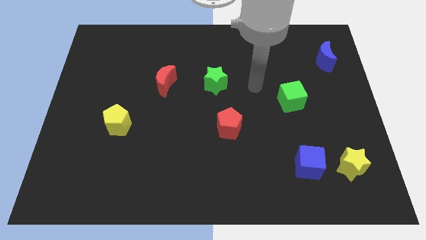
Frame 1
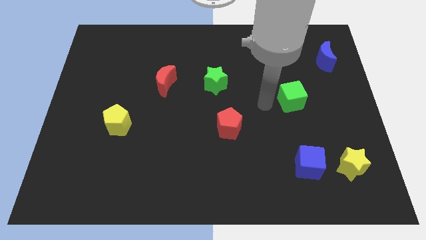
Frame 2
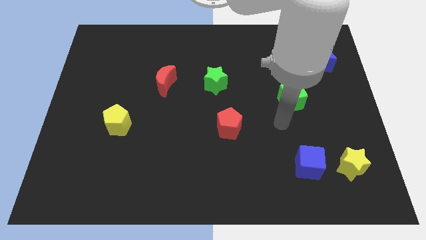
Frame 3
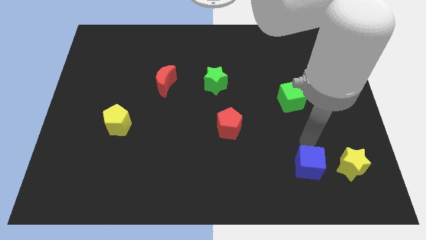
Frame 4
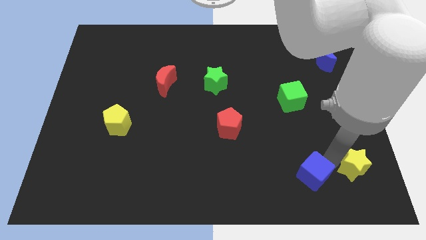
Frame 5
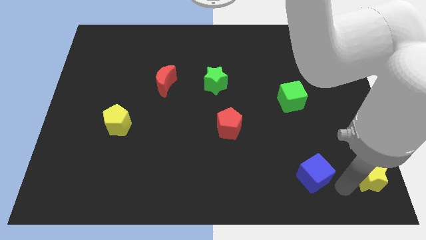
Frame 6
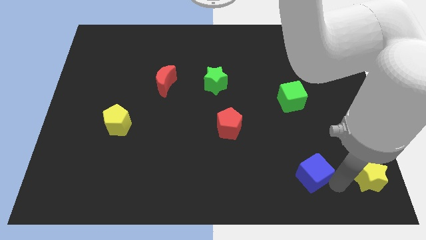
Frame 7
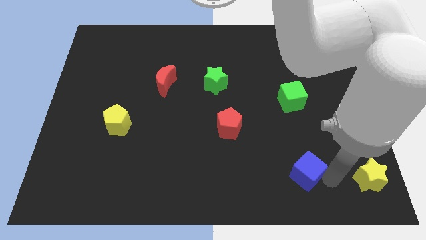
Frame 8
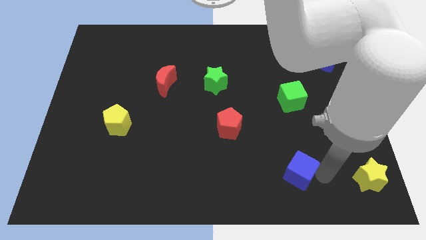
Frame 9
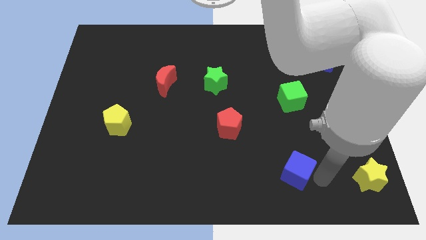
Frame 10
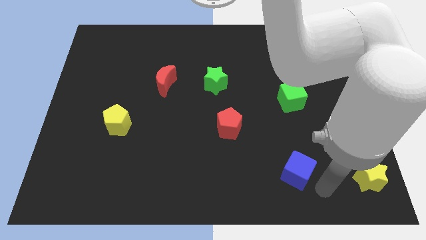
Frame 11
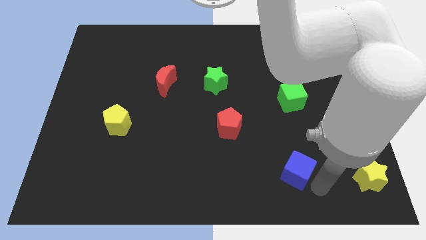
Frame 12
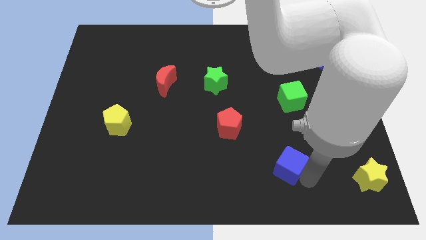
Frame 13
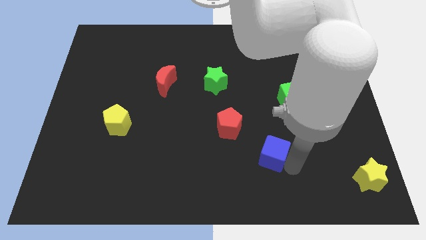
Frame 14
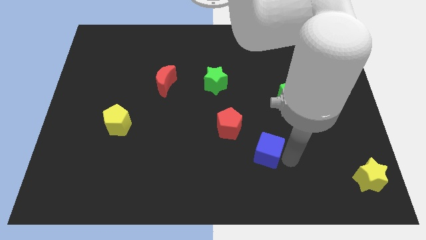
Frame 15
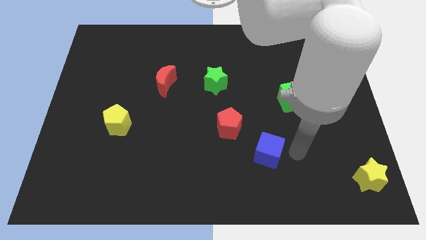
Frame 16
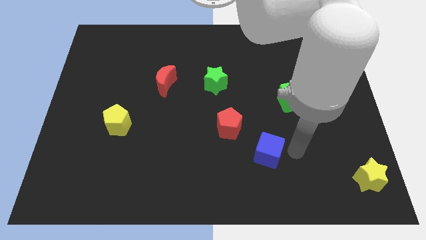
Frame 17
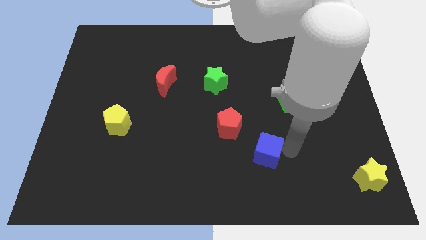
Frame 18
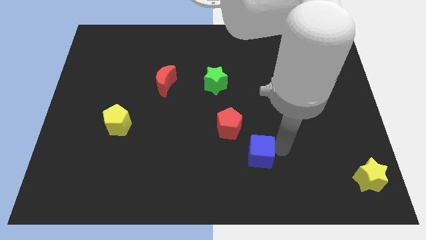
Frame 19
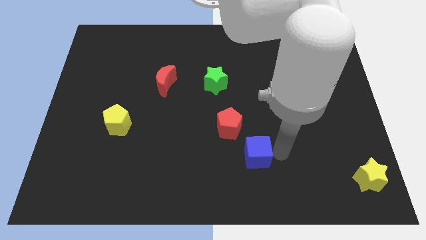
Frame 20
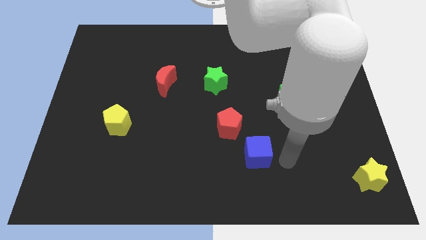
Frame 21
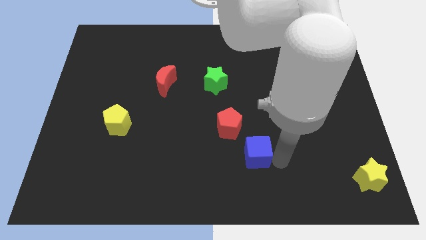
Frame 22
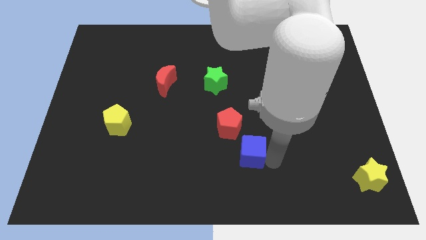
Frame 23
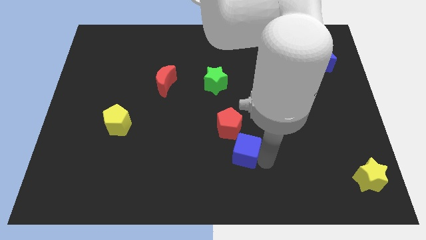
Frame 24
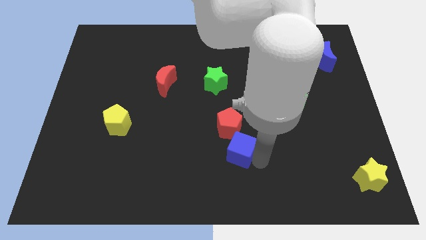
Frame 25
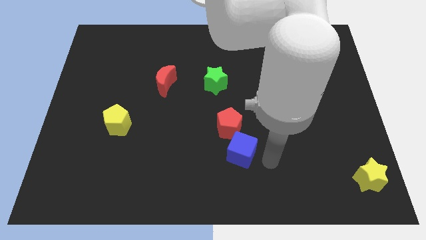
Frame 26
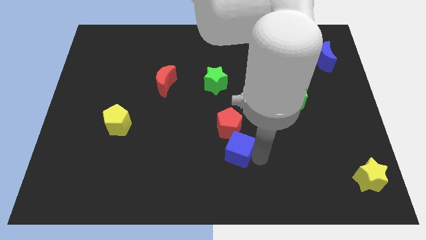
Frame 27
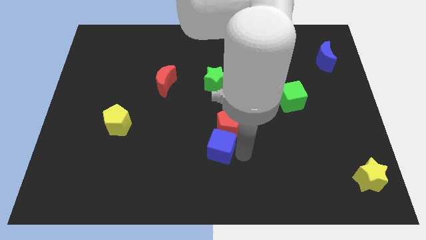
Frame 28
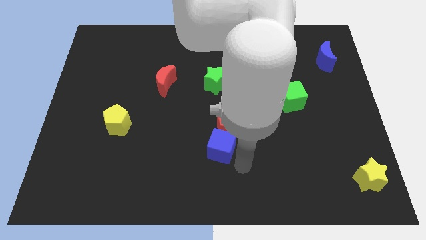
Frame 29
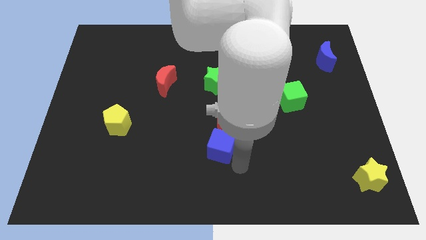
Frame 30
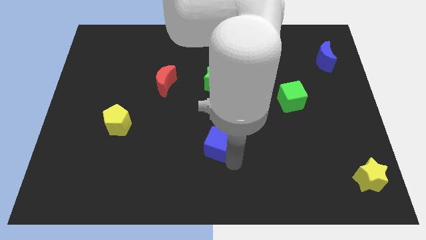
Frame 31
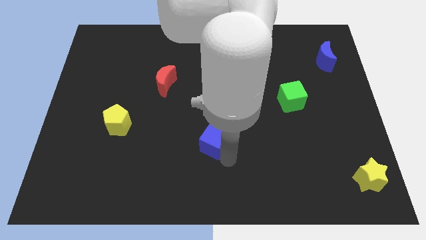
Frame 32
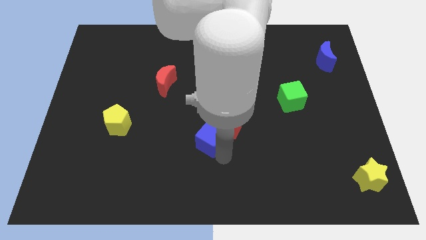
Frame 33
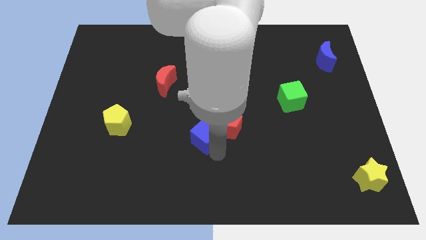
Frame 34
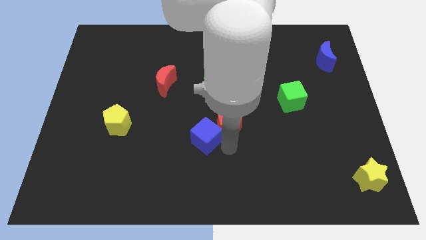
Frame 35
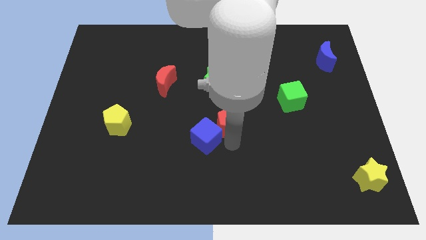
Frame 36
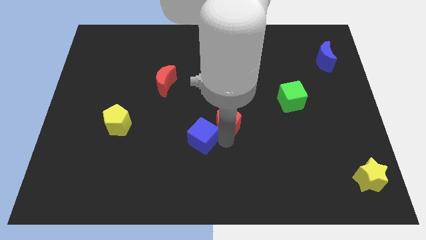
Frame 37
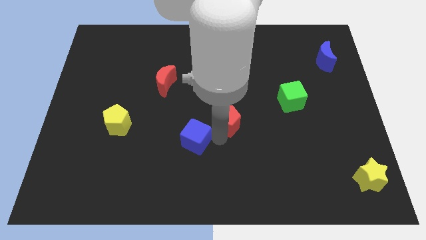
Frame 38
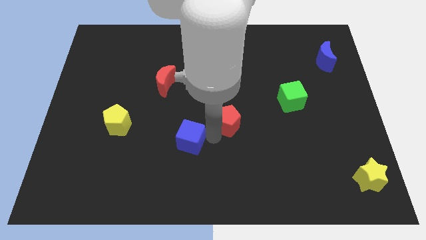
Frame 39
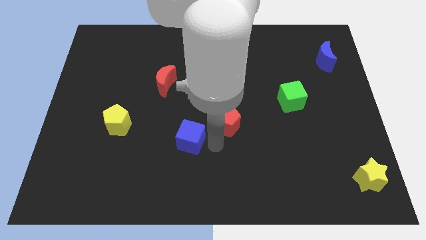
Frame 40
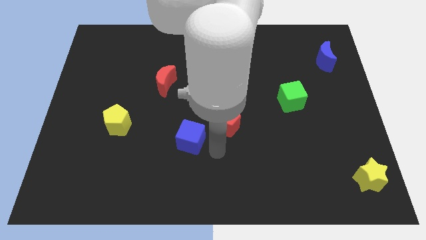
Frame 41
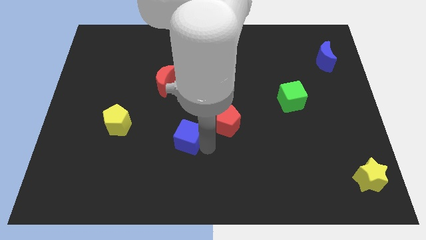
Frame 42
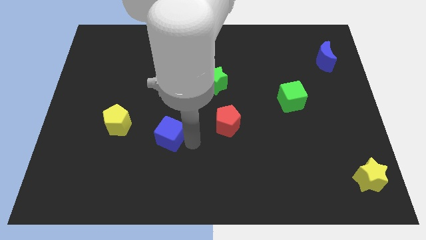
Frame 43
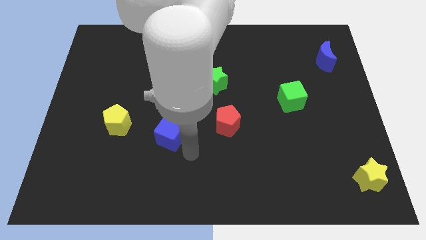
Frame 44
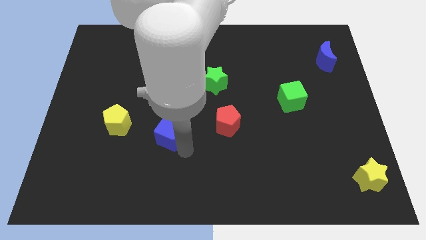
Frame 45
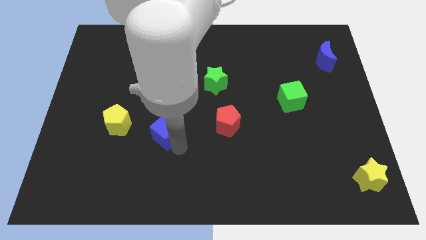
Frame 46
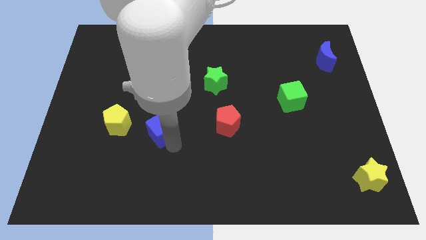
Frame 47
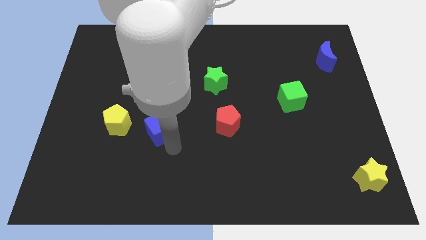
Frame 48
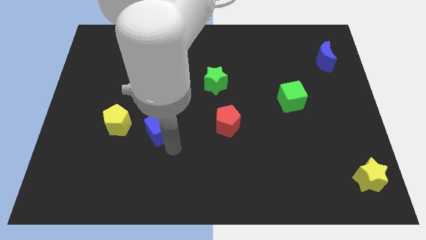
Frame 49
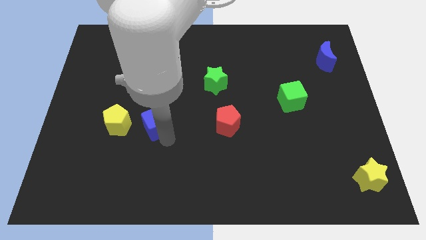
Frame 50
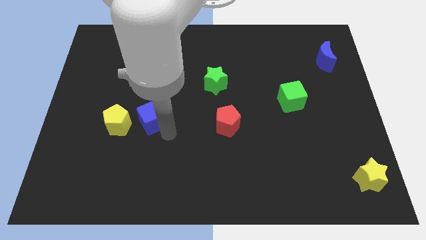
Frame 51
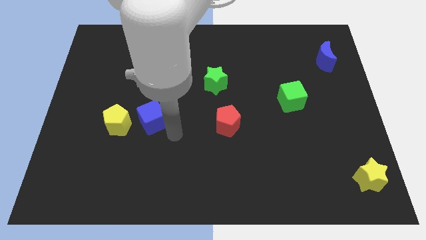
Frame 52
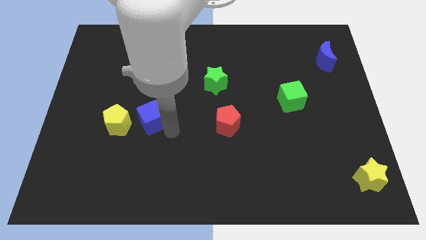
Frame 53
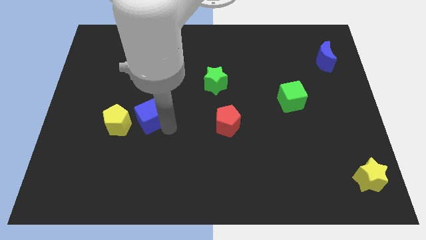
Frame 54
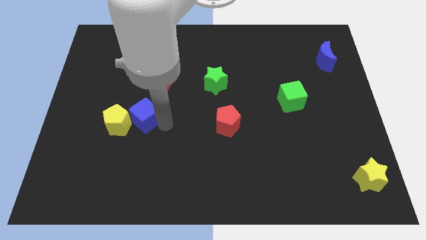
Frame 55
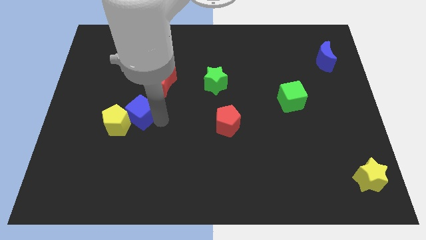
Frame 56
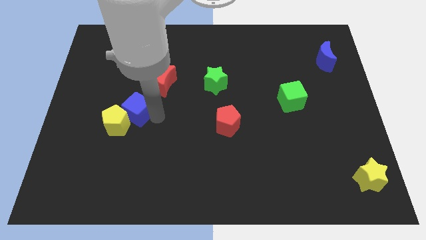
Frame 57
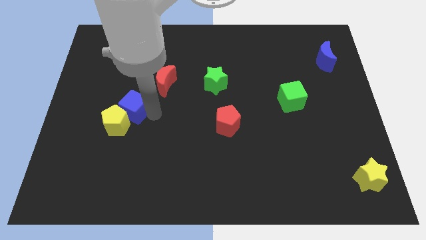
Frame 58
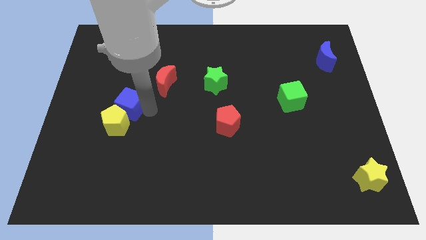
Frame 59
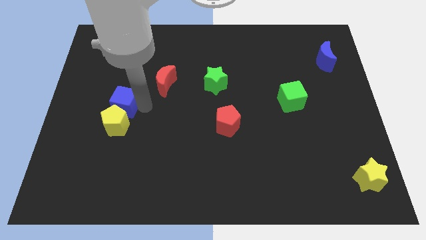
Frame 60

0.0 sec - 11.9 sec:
push the blue cube to the top left of the yellow pentagon
